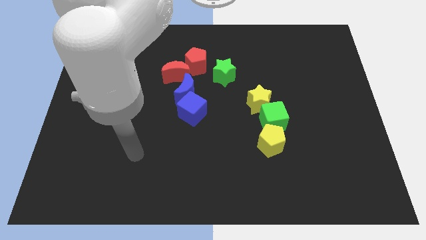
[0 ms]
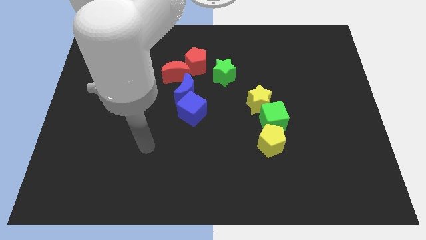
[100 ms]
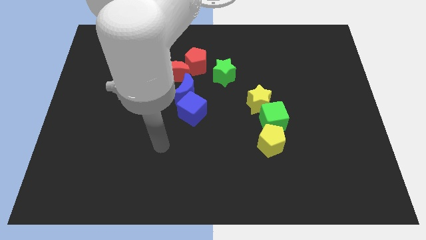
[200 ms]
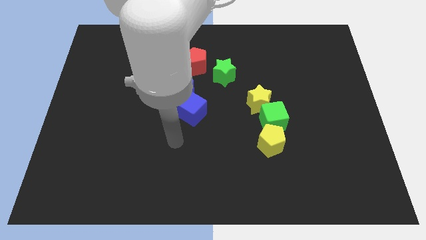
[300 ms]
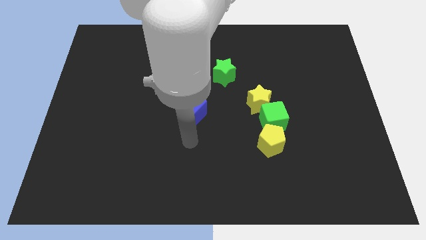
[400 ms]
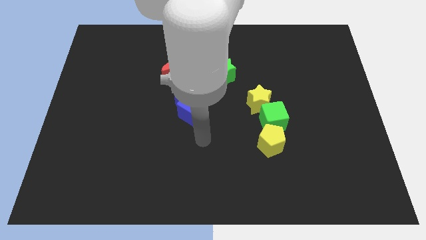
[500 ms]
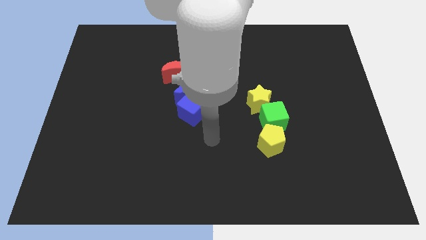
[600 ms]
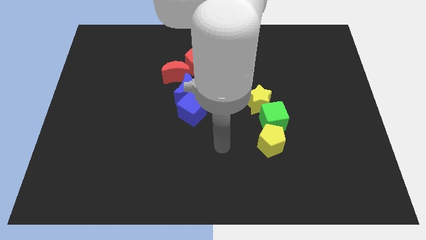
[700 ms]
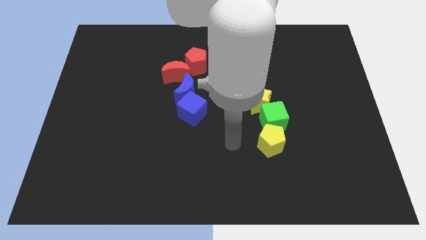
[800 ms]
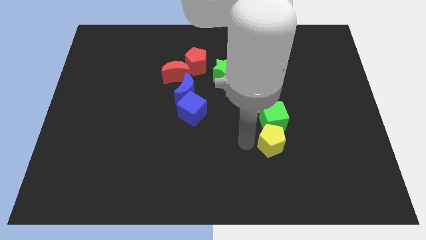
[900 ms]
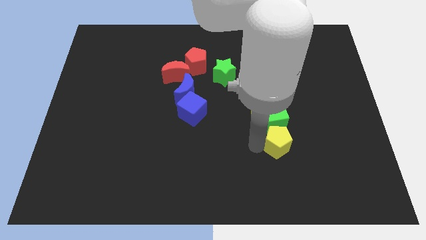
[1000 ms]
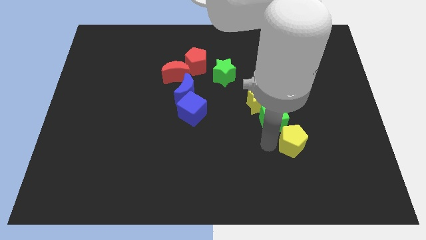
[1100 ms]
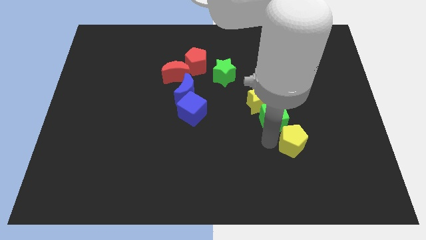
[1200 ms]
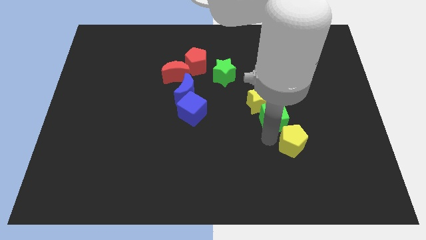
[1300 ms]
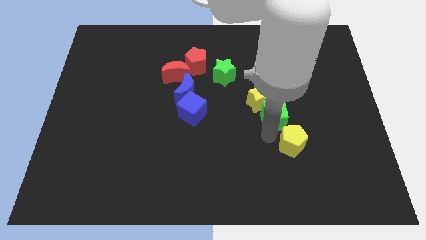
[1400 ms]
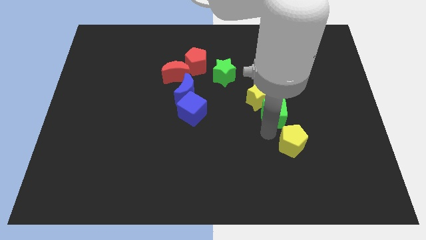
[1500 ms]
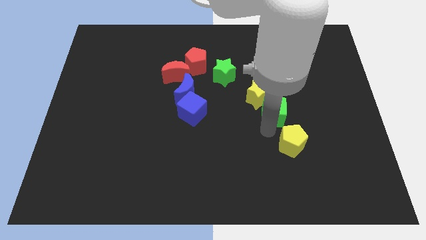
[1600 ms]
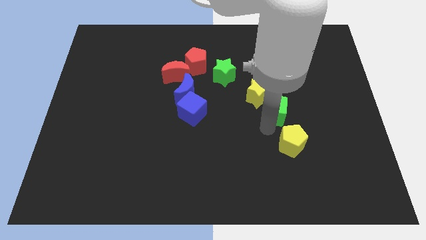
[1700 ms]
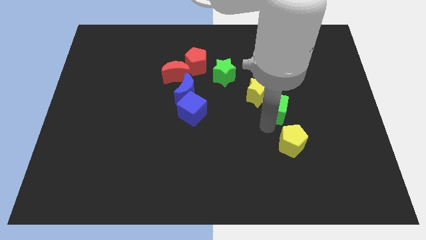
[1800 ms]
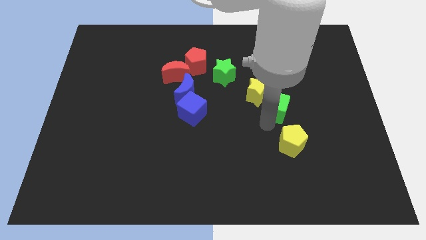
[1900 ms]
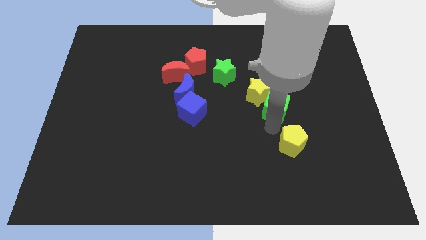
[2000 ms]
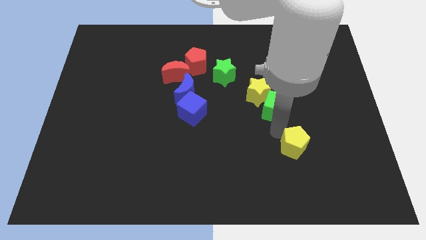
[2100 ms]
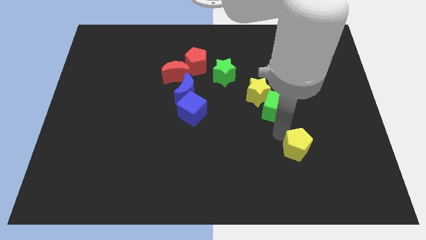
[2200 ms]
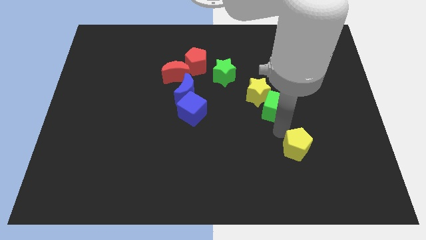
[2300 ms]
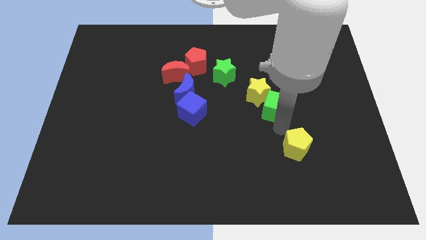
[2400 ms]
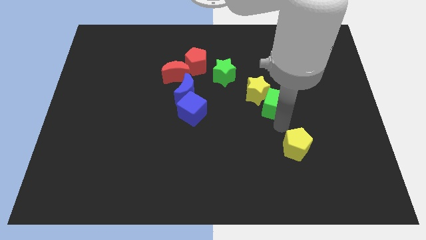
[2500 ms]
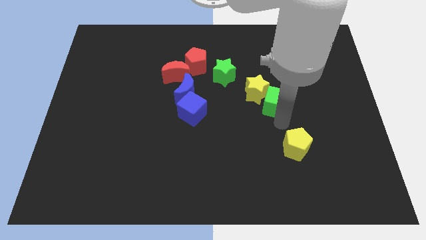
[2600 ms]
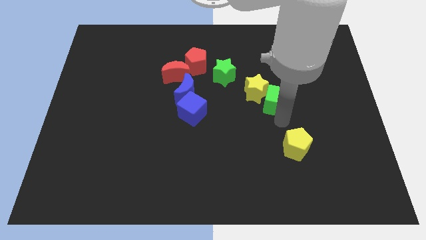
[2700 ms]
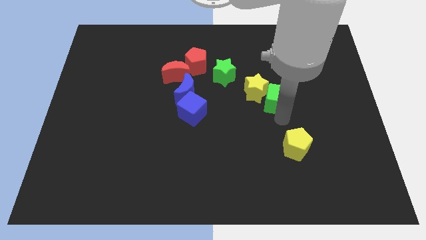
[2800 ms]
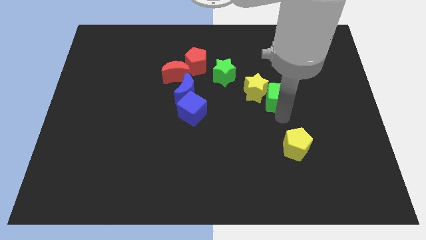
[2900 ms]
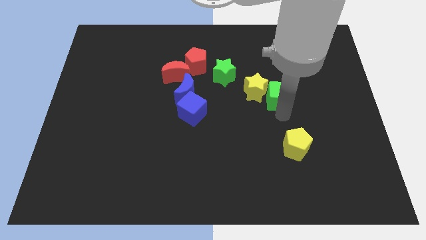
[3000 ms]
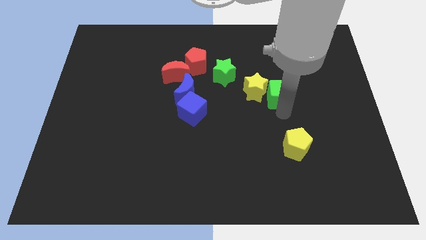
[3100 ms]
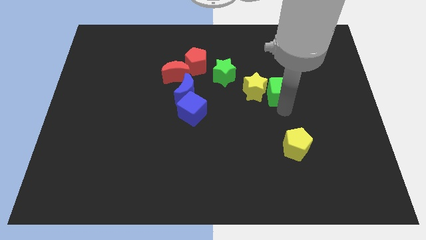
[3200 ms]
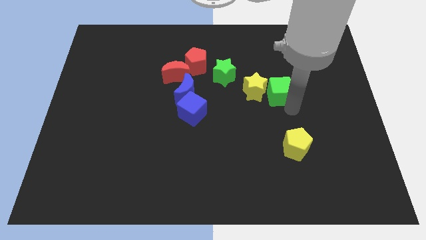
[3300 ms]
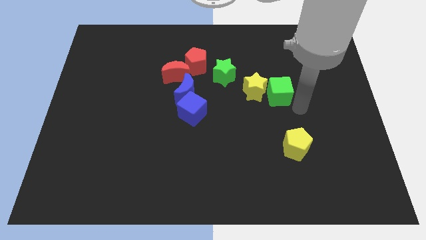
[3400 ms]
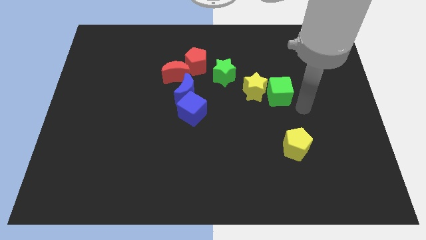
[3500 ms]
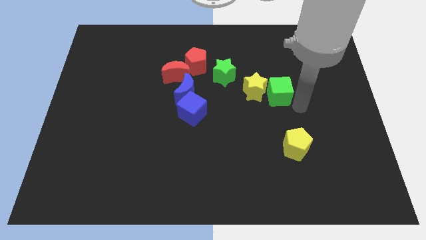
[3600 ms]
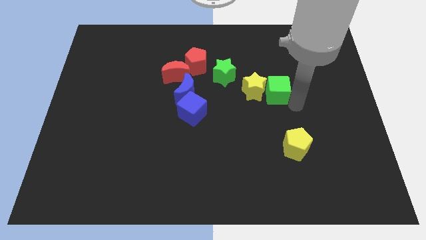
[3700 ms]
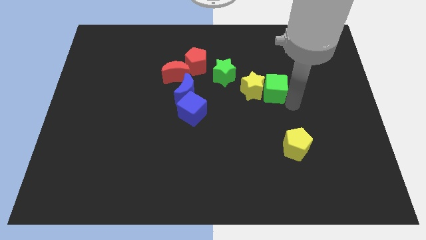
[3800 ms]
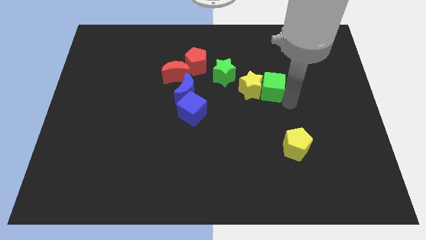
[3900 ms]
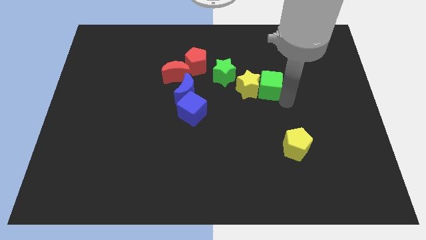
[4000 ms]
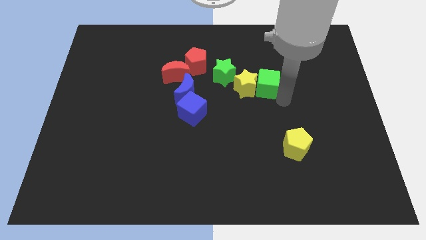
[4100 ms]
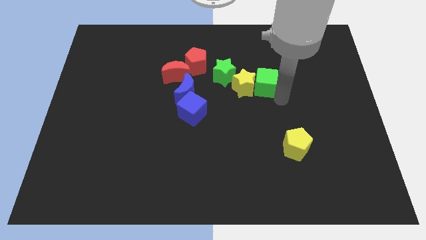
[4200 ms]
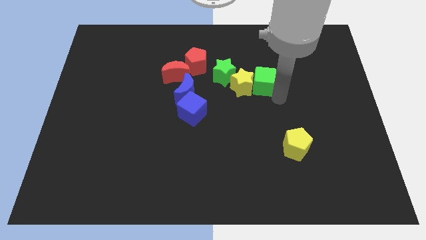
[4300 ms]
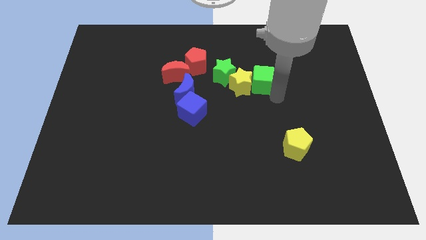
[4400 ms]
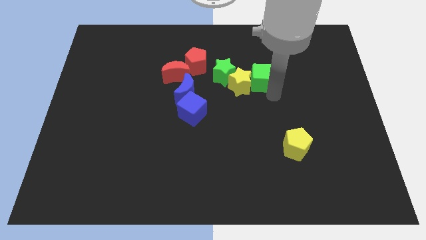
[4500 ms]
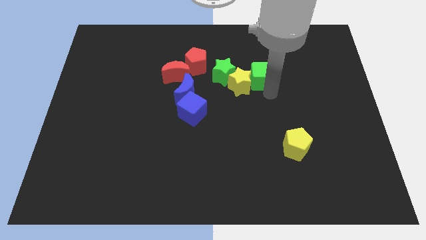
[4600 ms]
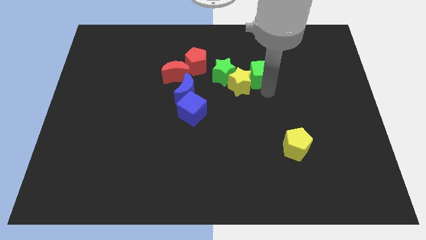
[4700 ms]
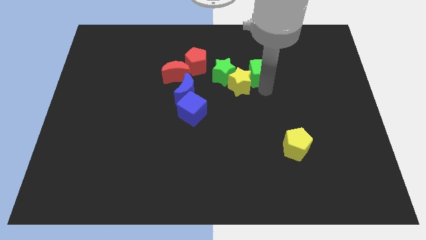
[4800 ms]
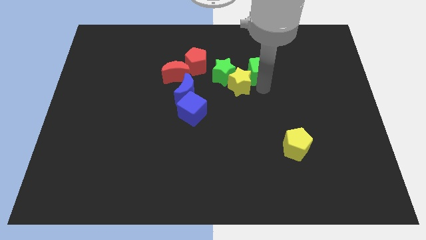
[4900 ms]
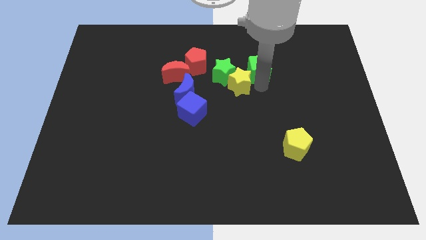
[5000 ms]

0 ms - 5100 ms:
put the green cube right of the red pentagon

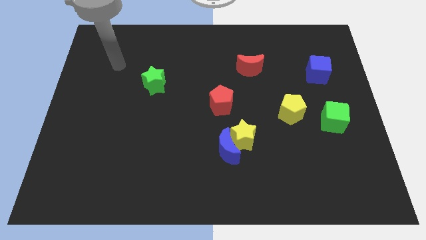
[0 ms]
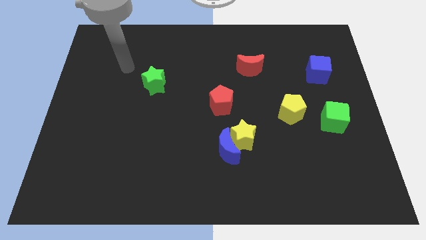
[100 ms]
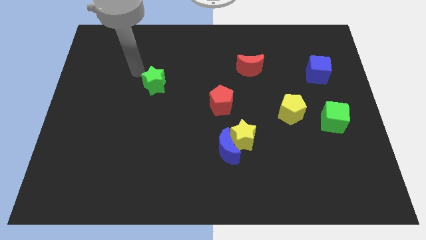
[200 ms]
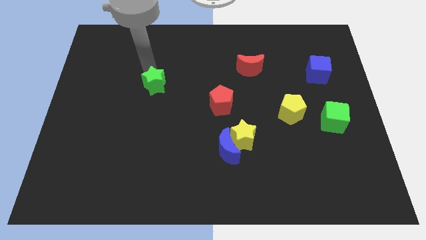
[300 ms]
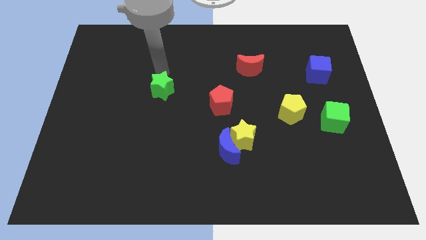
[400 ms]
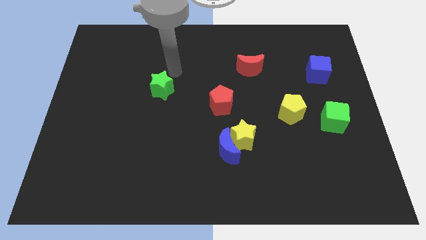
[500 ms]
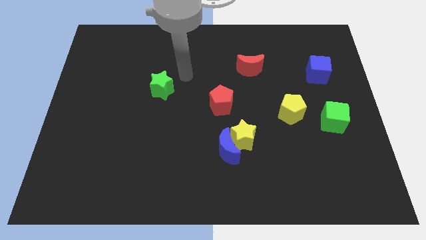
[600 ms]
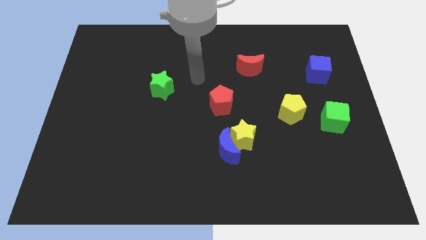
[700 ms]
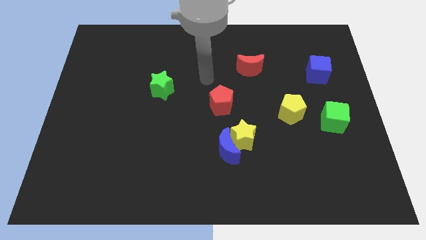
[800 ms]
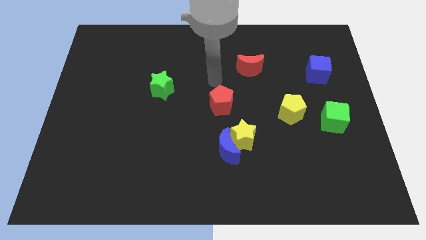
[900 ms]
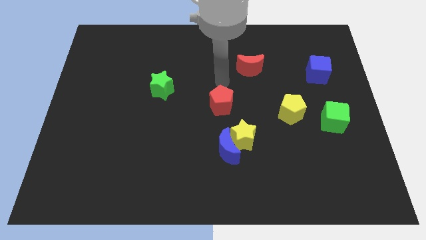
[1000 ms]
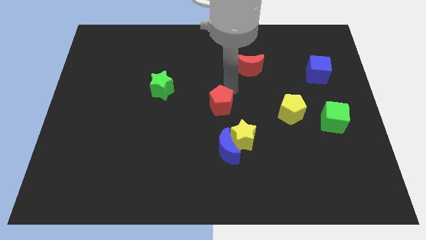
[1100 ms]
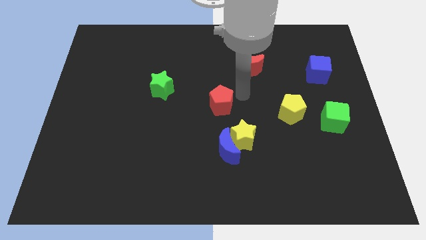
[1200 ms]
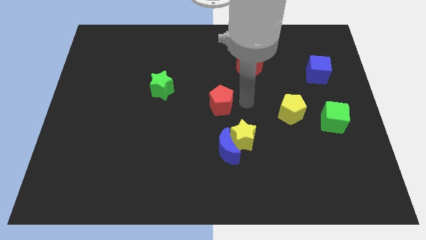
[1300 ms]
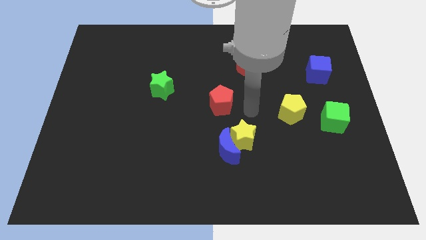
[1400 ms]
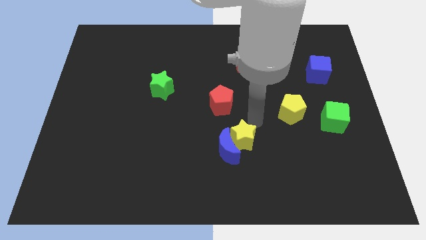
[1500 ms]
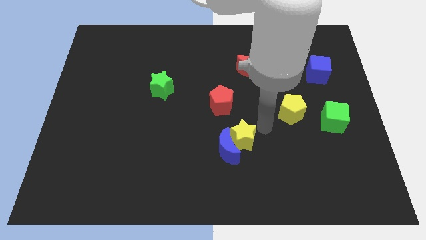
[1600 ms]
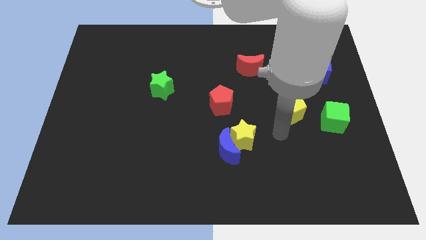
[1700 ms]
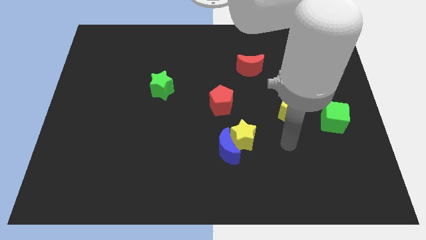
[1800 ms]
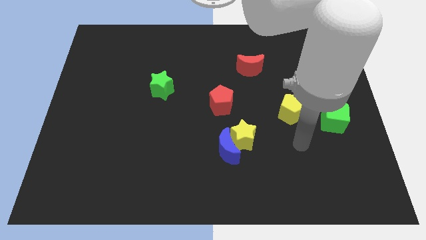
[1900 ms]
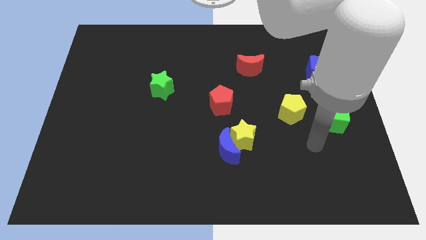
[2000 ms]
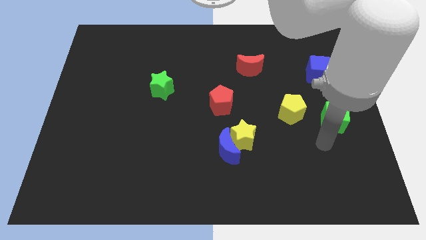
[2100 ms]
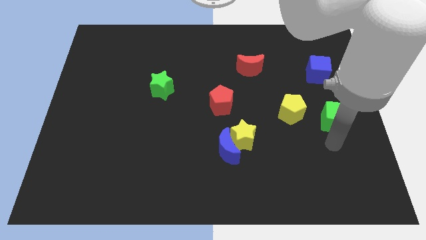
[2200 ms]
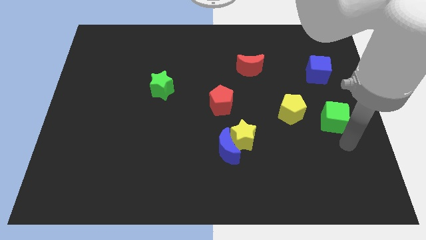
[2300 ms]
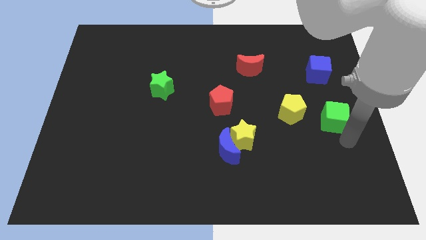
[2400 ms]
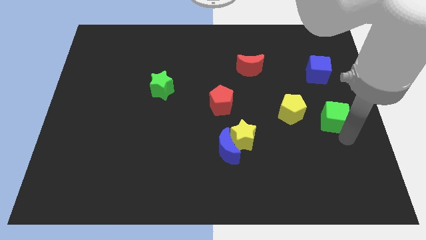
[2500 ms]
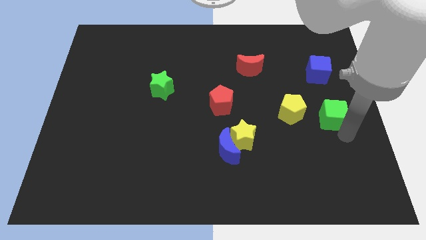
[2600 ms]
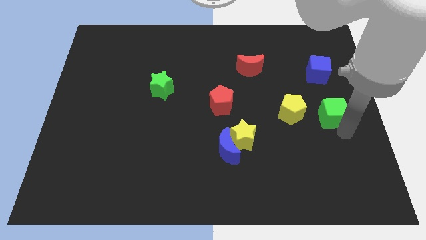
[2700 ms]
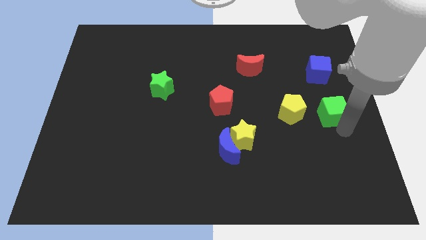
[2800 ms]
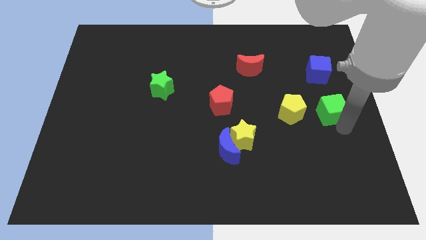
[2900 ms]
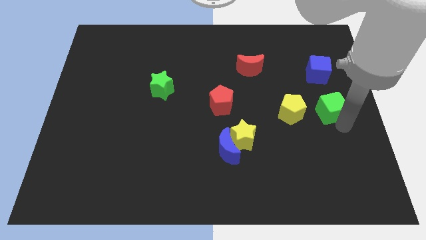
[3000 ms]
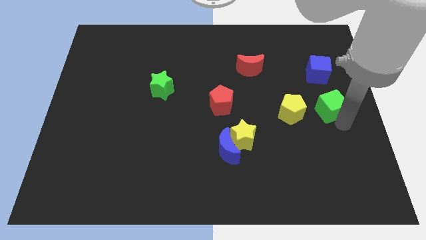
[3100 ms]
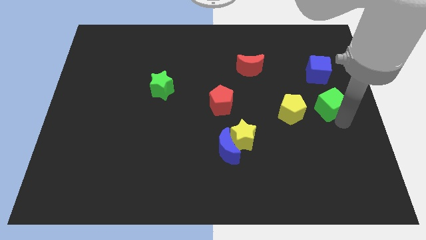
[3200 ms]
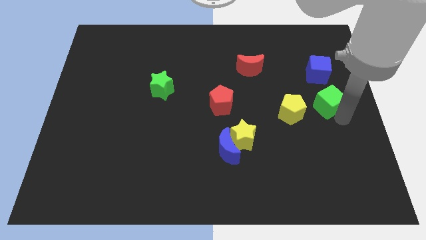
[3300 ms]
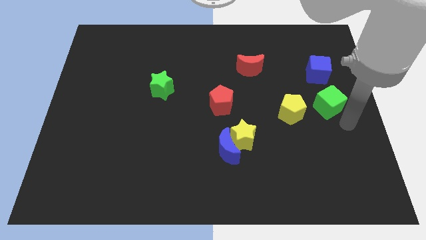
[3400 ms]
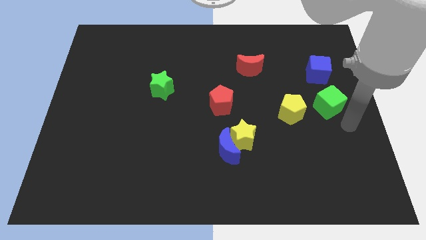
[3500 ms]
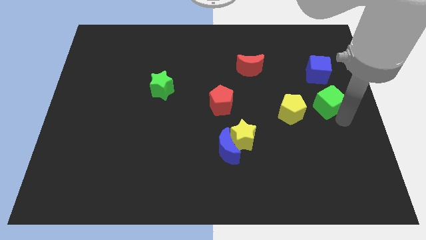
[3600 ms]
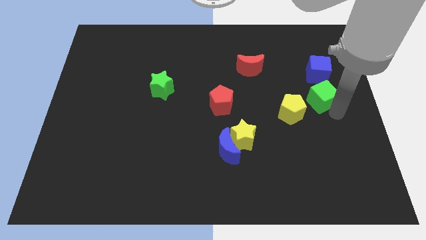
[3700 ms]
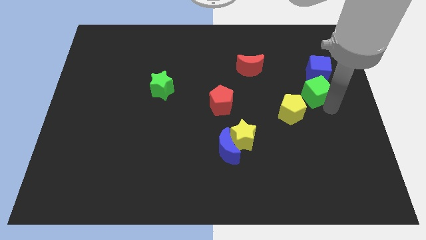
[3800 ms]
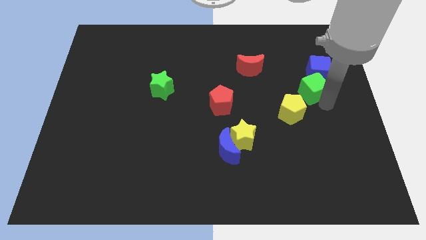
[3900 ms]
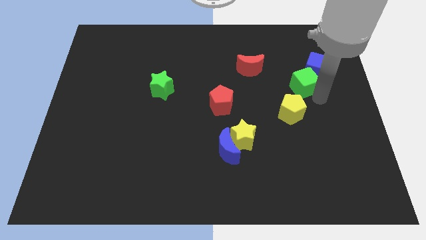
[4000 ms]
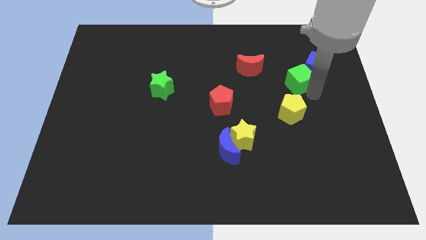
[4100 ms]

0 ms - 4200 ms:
push the green cube just right of the red moon
